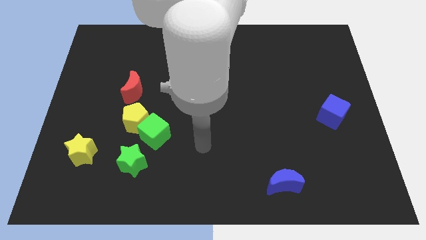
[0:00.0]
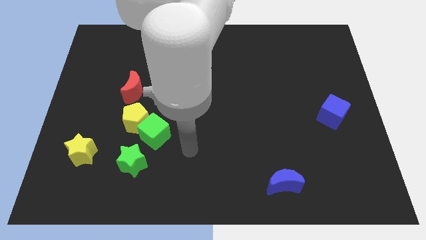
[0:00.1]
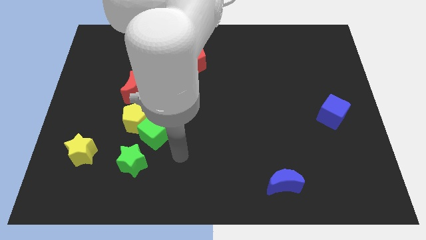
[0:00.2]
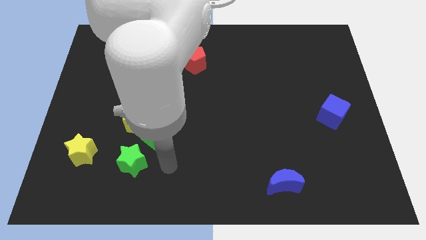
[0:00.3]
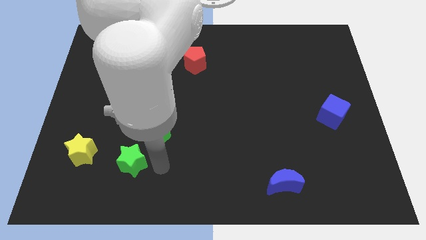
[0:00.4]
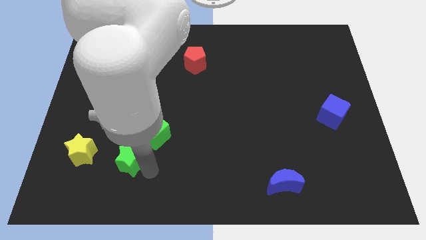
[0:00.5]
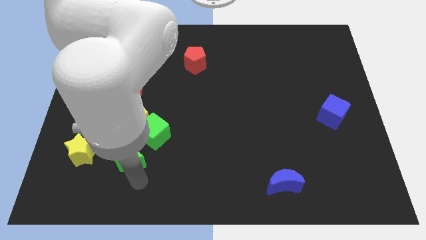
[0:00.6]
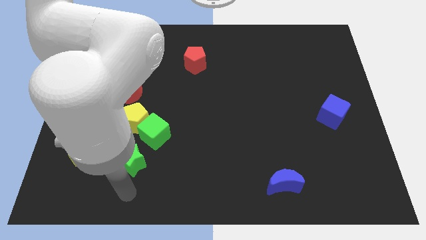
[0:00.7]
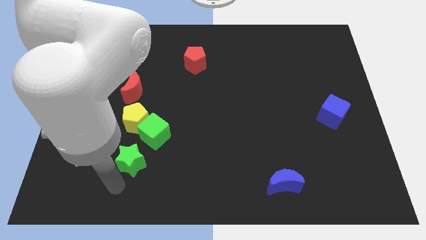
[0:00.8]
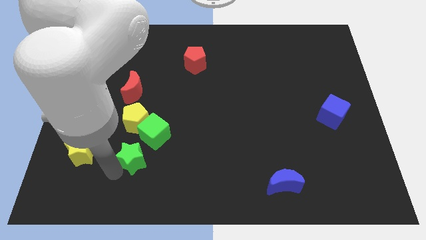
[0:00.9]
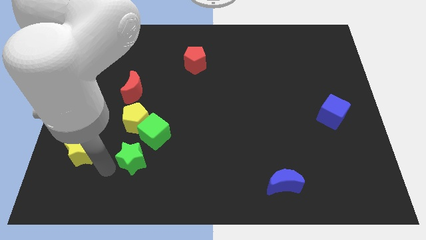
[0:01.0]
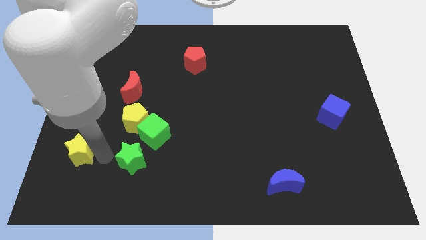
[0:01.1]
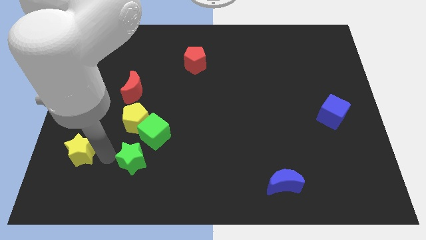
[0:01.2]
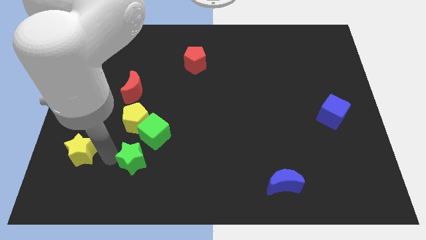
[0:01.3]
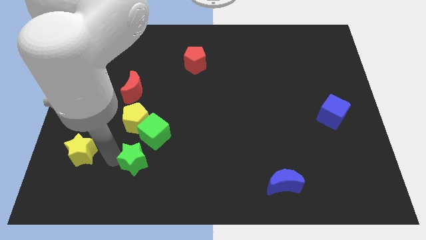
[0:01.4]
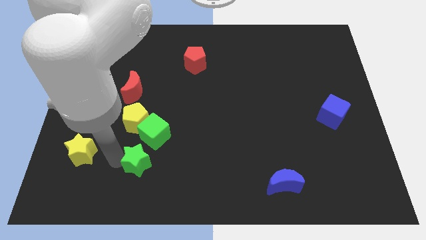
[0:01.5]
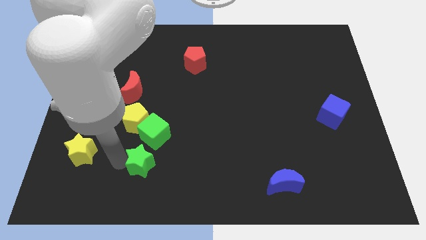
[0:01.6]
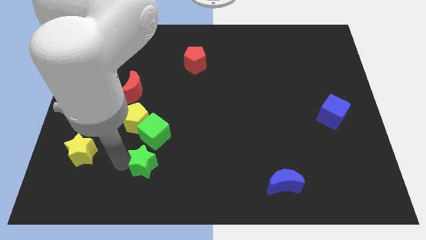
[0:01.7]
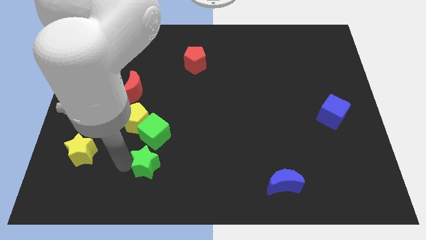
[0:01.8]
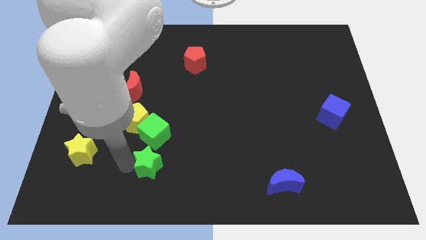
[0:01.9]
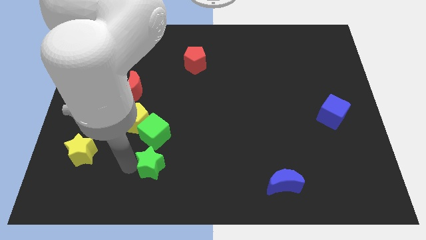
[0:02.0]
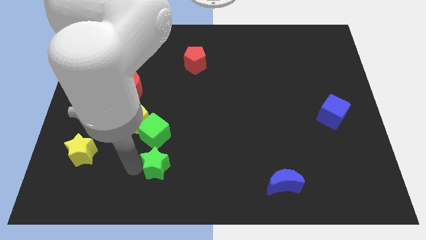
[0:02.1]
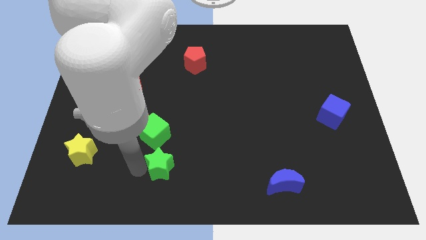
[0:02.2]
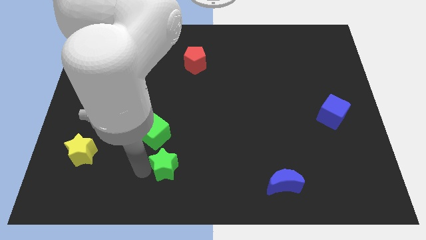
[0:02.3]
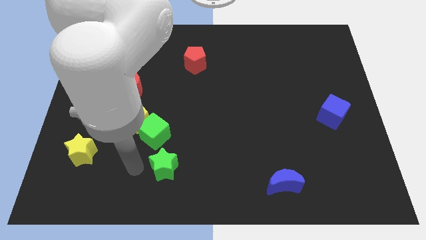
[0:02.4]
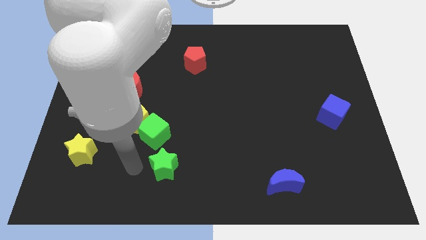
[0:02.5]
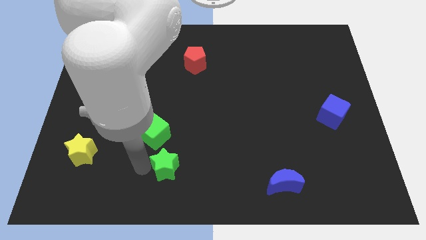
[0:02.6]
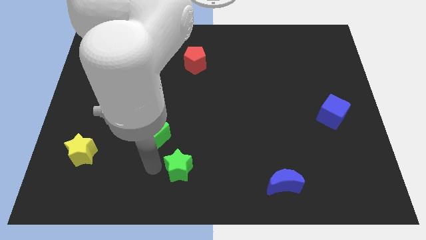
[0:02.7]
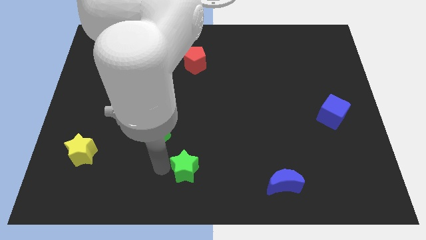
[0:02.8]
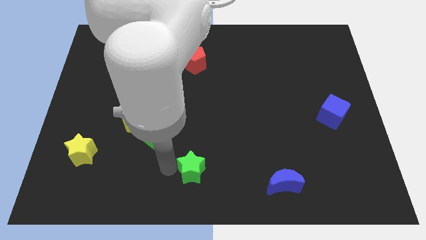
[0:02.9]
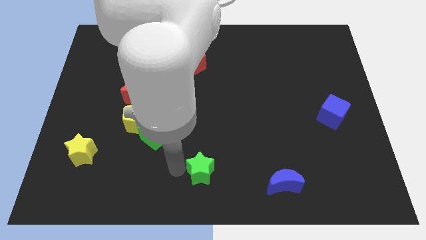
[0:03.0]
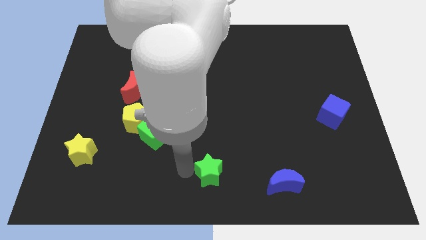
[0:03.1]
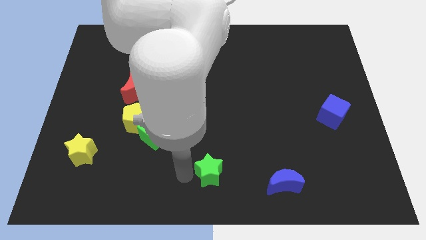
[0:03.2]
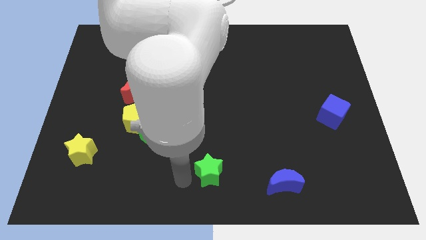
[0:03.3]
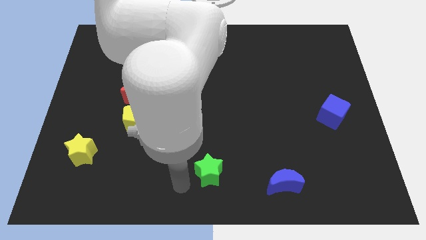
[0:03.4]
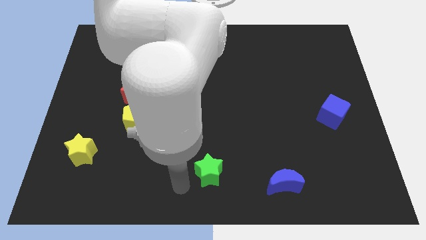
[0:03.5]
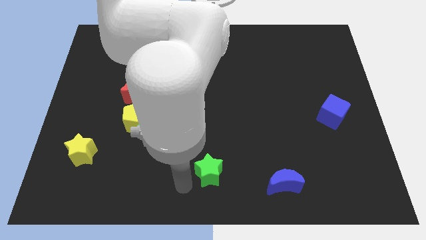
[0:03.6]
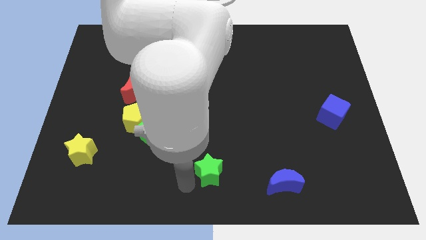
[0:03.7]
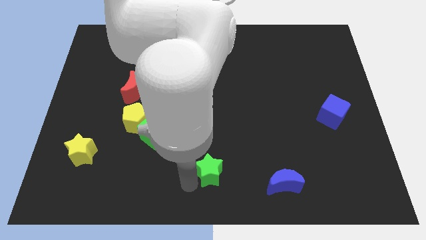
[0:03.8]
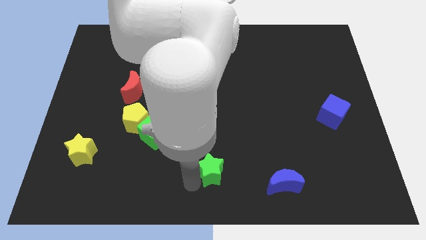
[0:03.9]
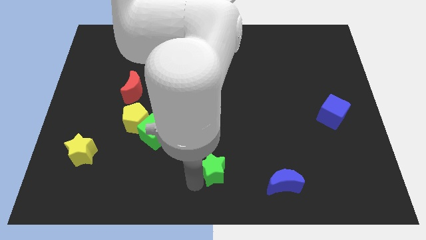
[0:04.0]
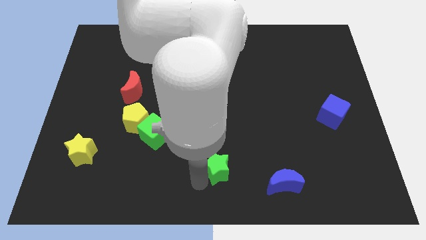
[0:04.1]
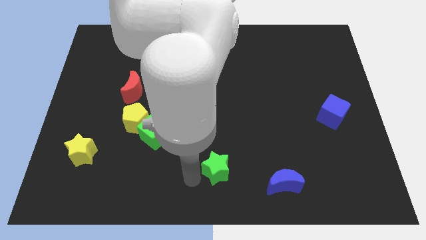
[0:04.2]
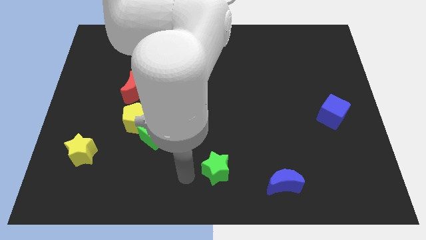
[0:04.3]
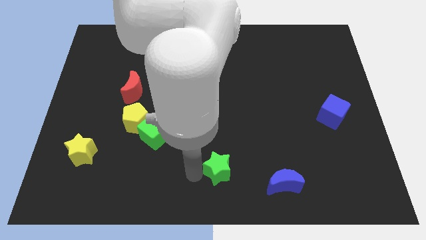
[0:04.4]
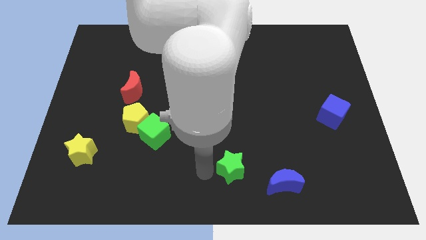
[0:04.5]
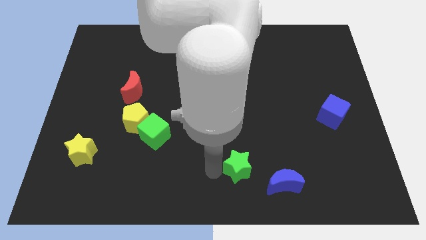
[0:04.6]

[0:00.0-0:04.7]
slide the green star to the top left side of the blue moon

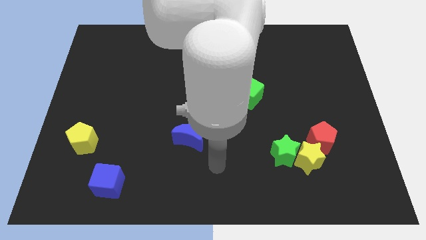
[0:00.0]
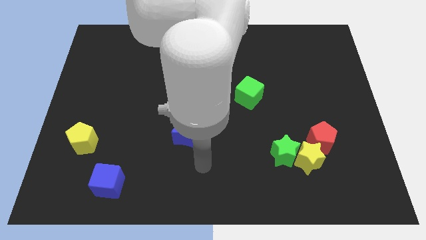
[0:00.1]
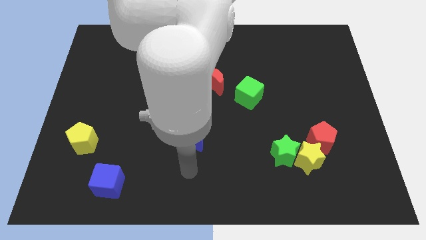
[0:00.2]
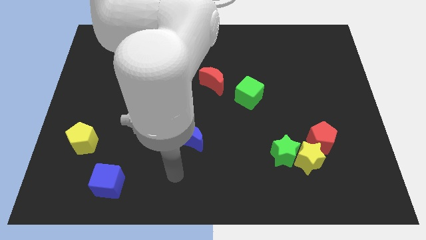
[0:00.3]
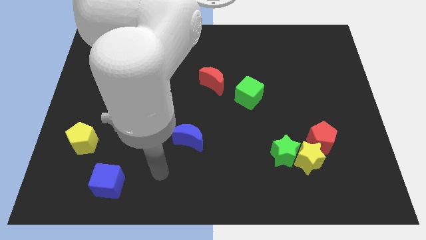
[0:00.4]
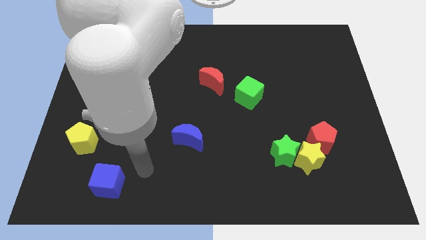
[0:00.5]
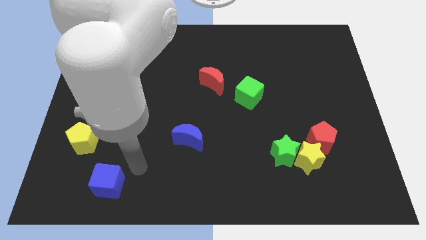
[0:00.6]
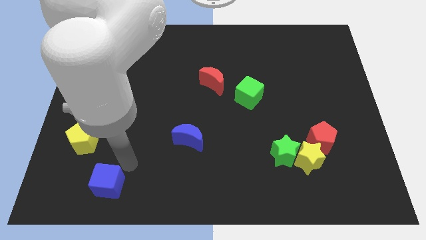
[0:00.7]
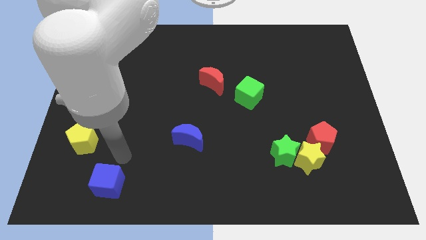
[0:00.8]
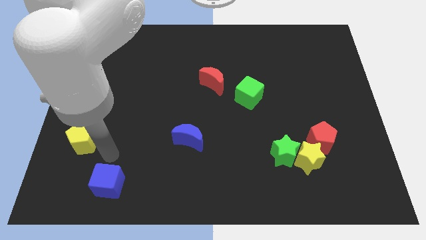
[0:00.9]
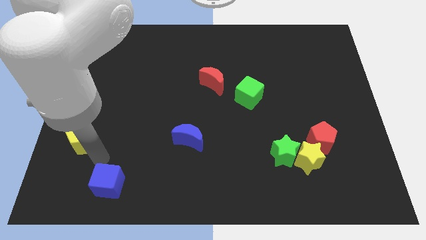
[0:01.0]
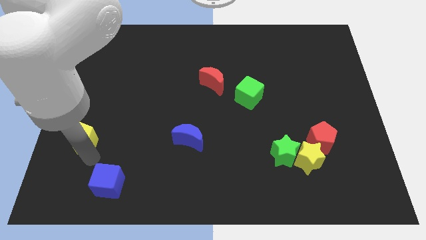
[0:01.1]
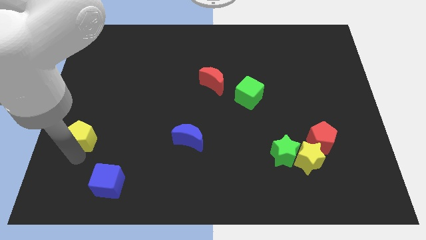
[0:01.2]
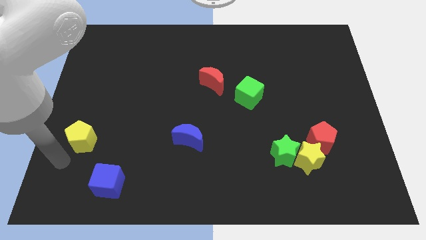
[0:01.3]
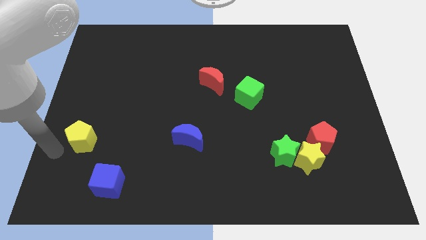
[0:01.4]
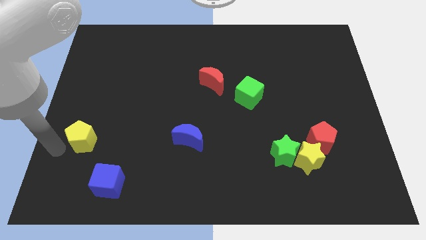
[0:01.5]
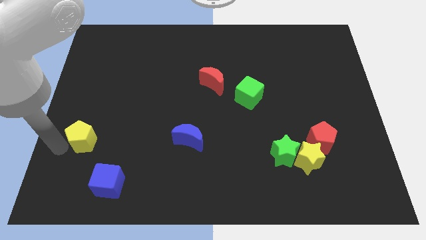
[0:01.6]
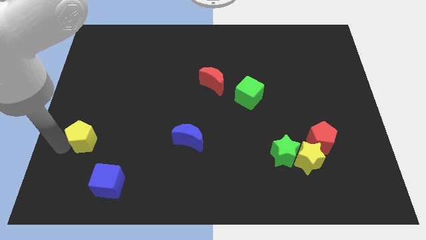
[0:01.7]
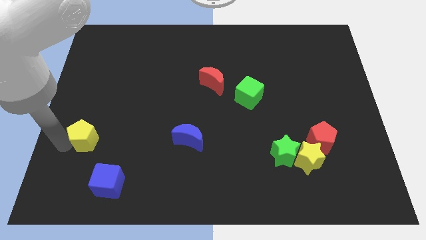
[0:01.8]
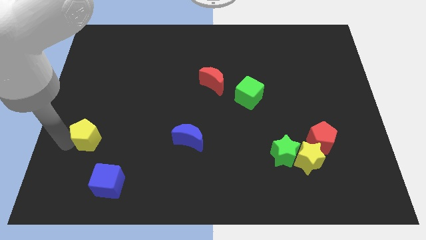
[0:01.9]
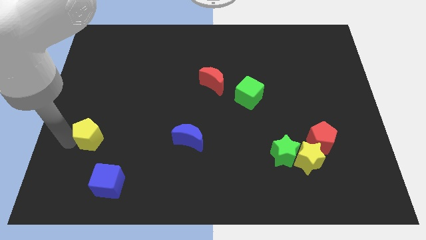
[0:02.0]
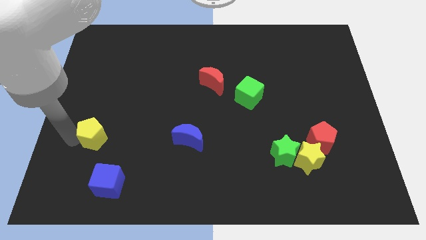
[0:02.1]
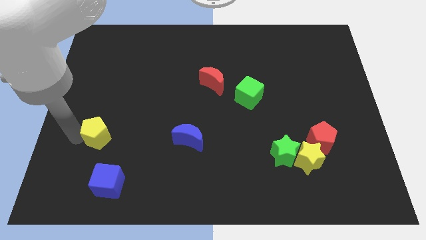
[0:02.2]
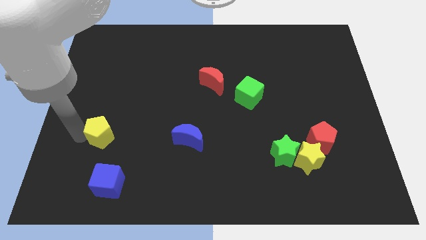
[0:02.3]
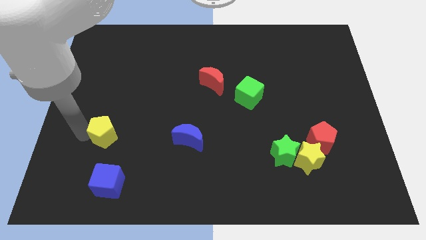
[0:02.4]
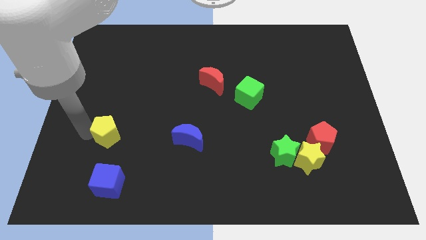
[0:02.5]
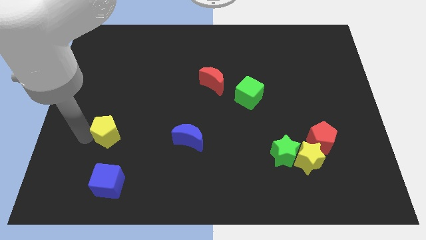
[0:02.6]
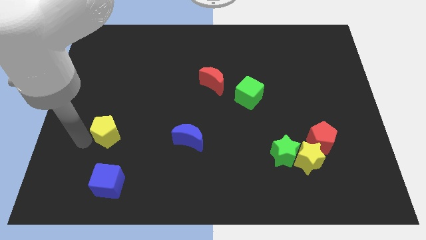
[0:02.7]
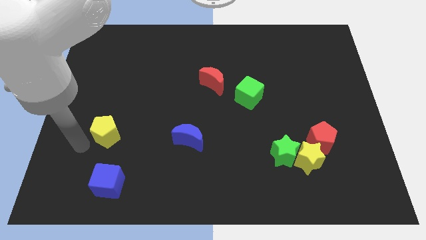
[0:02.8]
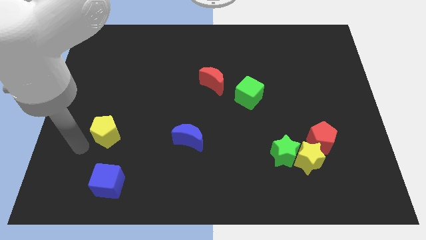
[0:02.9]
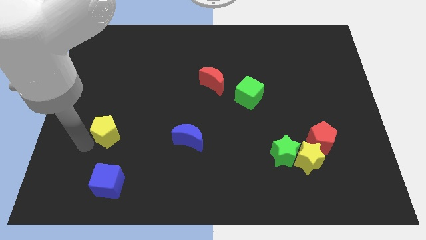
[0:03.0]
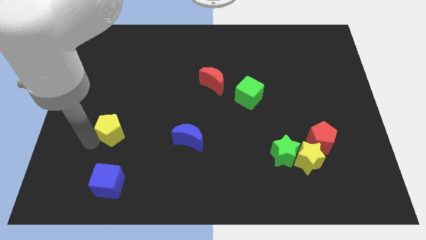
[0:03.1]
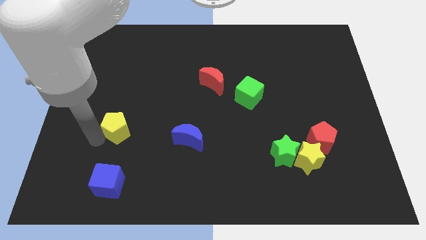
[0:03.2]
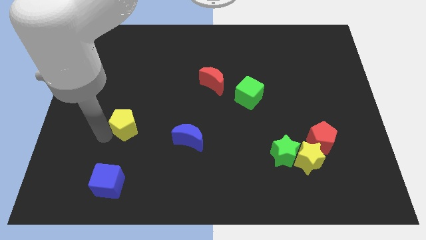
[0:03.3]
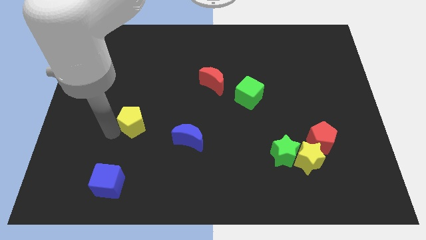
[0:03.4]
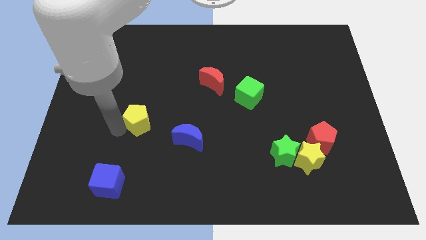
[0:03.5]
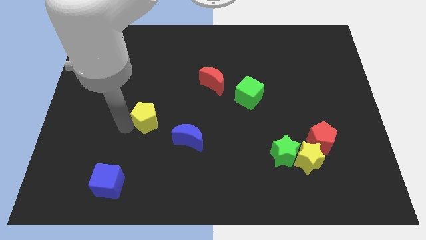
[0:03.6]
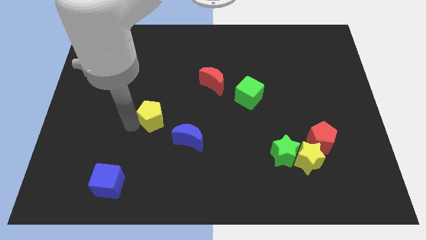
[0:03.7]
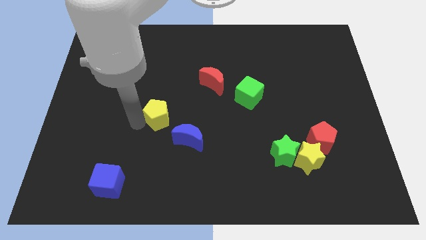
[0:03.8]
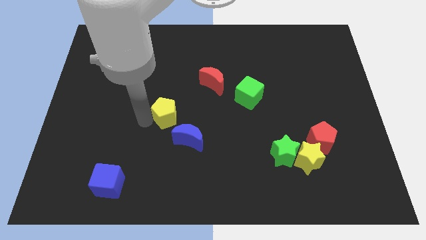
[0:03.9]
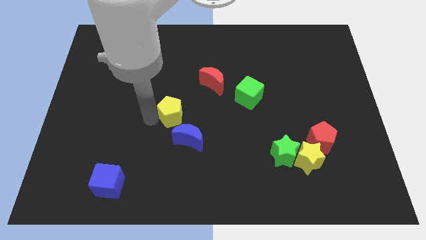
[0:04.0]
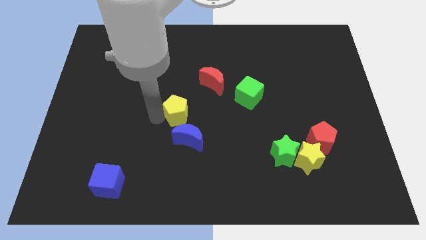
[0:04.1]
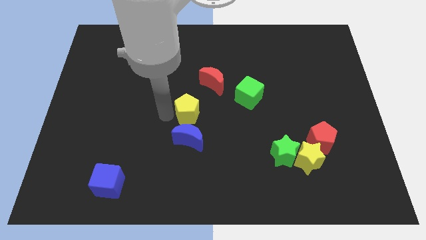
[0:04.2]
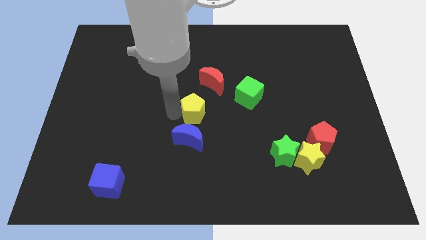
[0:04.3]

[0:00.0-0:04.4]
push the yellow pentagon below the red moon
